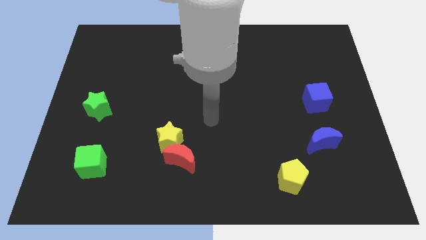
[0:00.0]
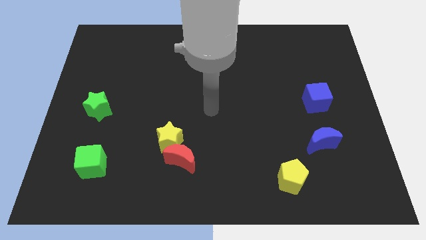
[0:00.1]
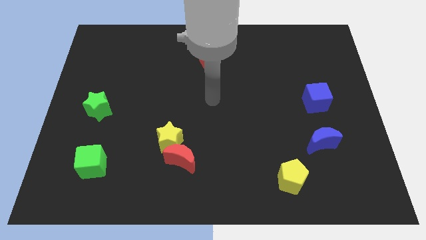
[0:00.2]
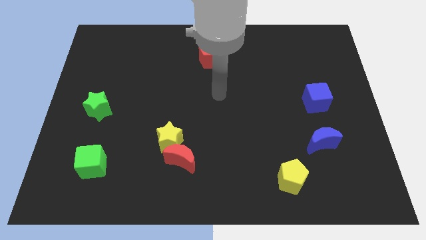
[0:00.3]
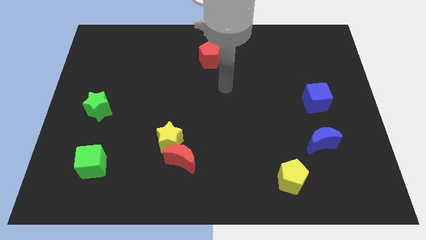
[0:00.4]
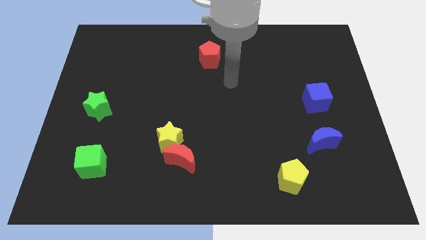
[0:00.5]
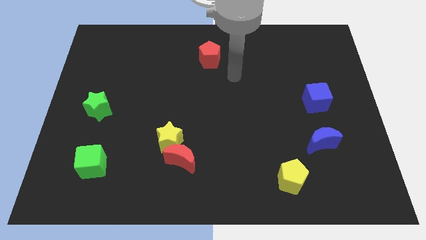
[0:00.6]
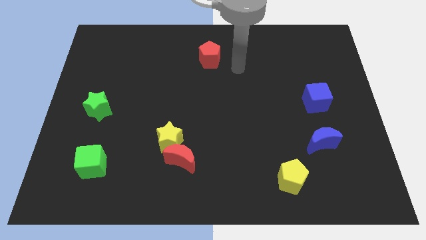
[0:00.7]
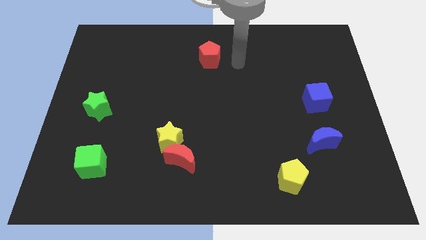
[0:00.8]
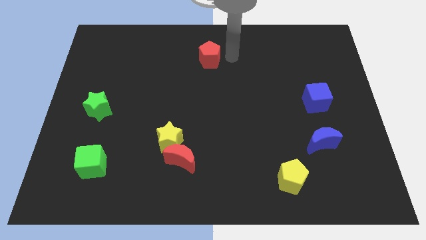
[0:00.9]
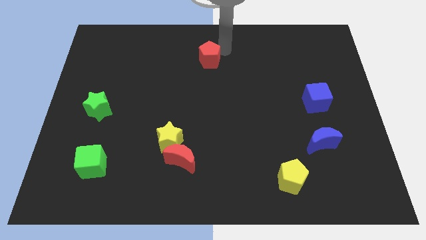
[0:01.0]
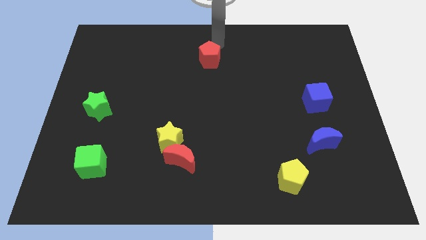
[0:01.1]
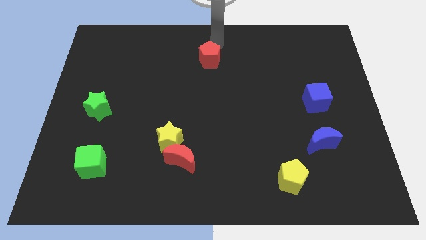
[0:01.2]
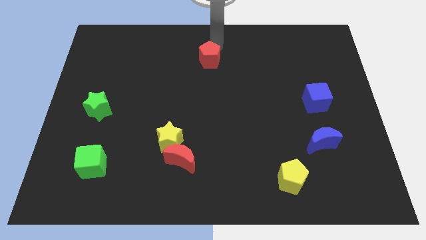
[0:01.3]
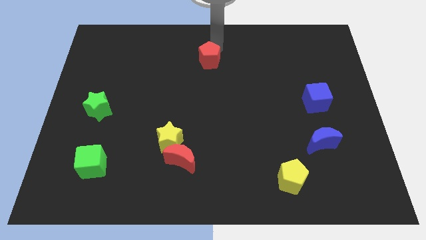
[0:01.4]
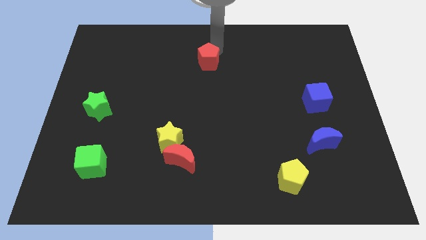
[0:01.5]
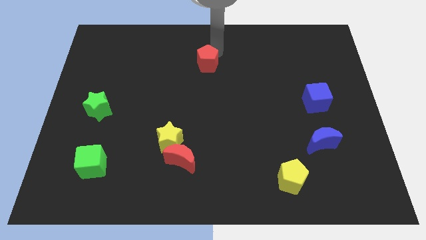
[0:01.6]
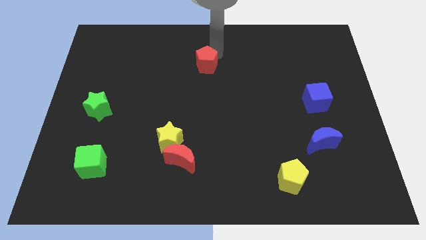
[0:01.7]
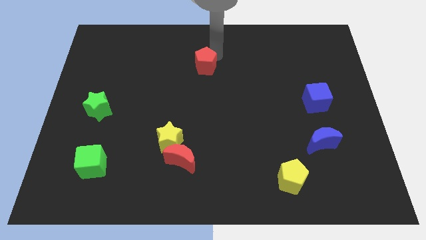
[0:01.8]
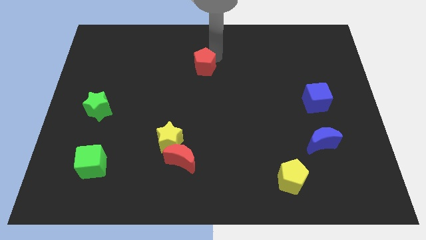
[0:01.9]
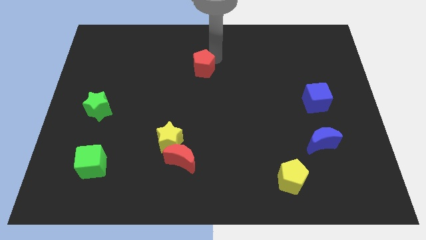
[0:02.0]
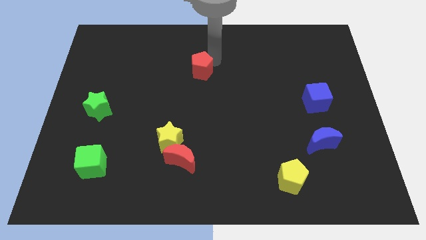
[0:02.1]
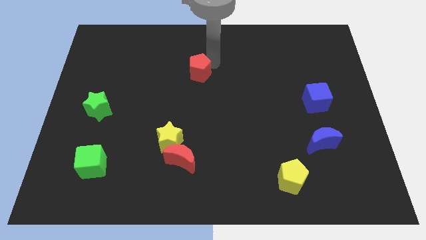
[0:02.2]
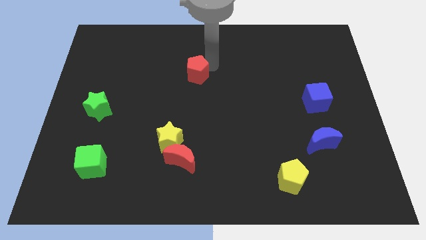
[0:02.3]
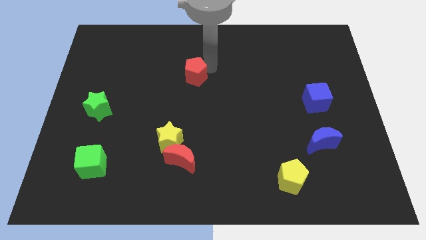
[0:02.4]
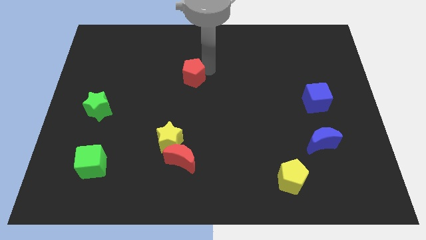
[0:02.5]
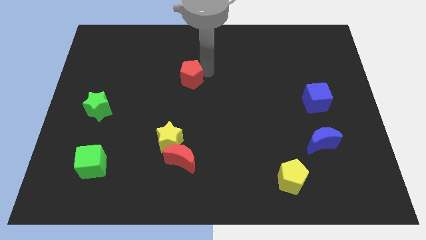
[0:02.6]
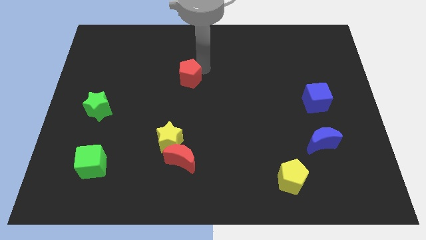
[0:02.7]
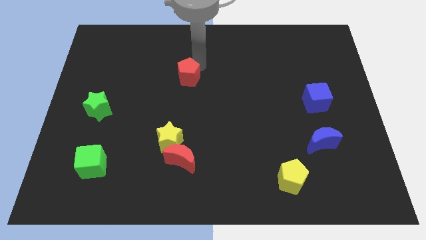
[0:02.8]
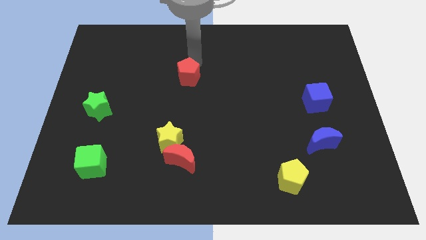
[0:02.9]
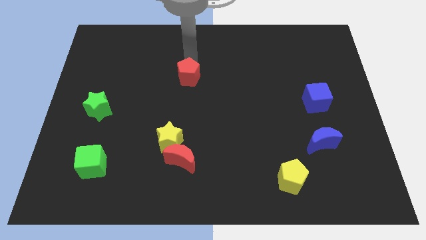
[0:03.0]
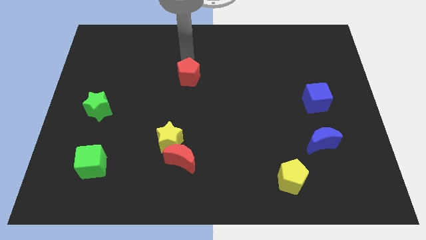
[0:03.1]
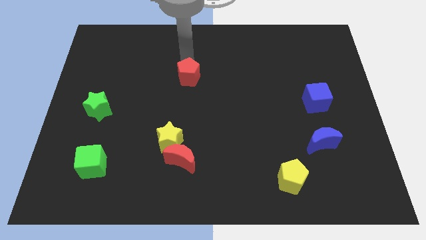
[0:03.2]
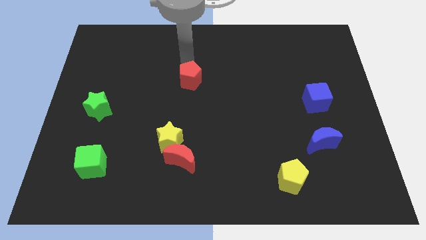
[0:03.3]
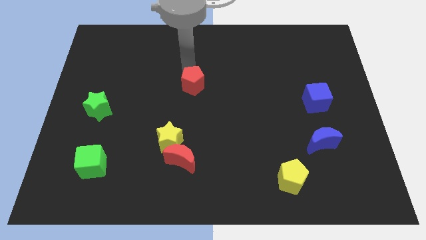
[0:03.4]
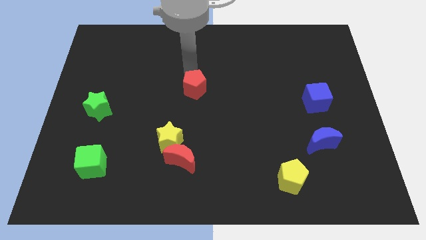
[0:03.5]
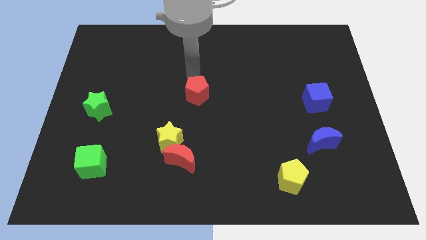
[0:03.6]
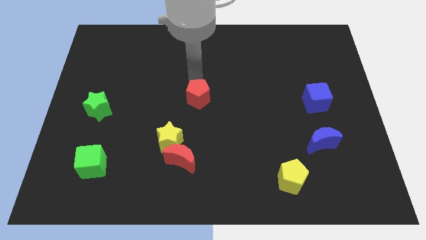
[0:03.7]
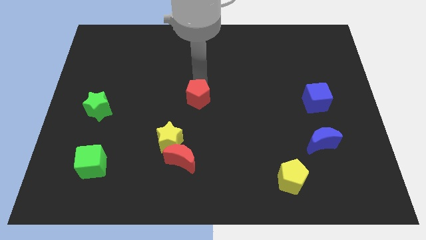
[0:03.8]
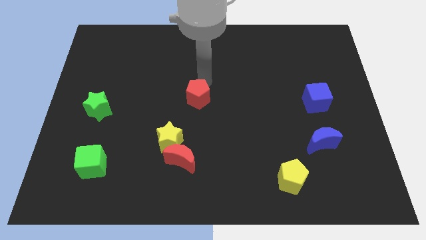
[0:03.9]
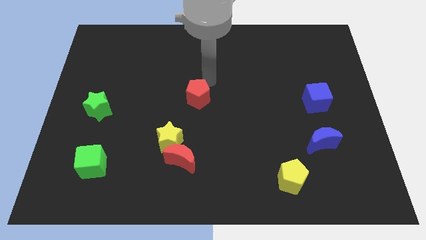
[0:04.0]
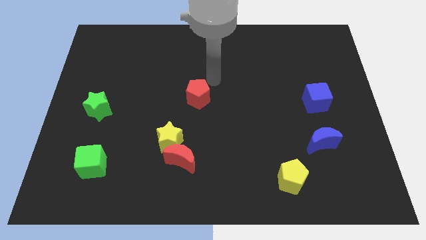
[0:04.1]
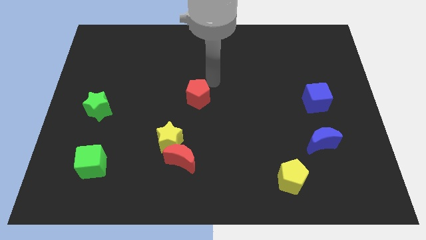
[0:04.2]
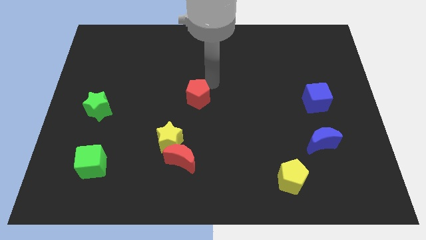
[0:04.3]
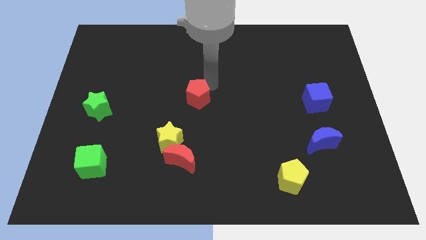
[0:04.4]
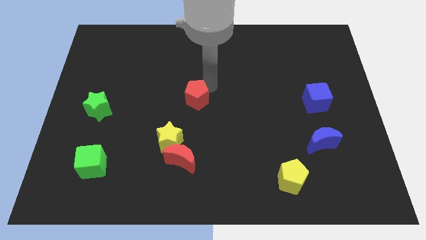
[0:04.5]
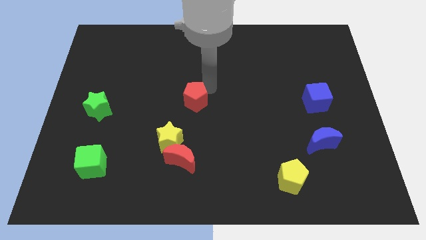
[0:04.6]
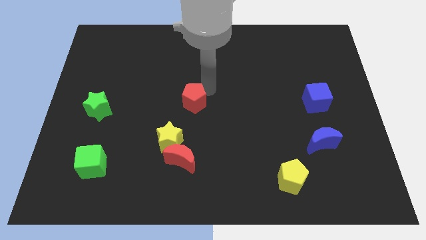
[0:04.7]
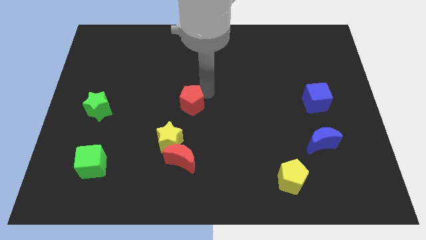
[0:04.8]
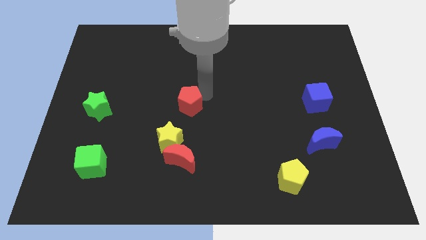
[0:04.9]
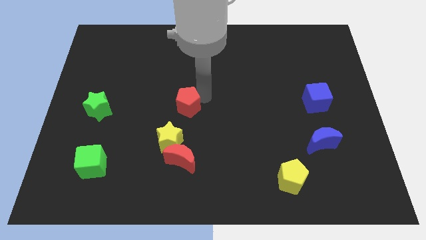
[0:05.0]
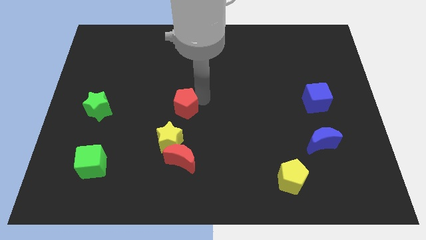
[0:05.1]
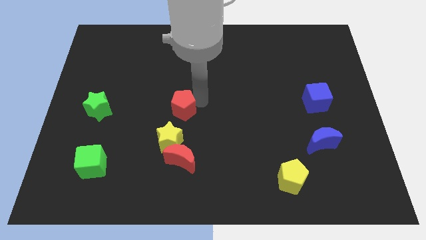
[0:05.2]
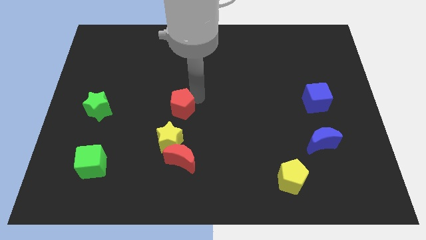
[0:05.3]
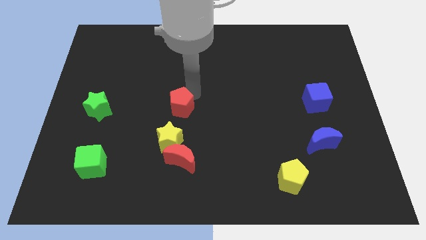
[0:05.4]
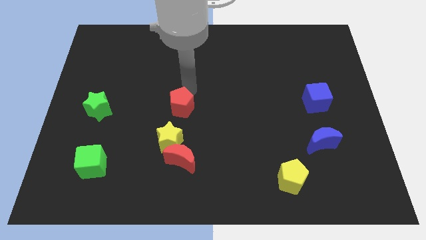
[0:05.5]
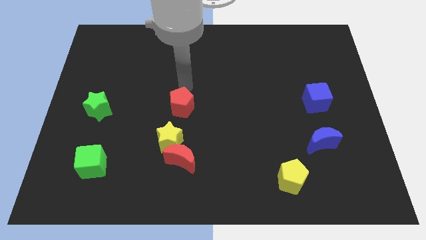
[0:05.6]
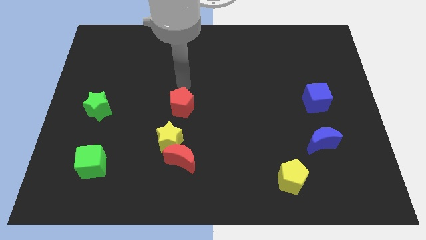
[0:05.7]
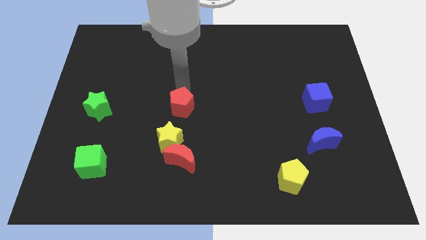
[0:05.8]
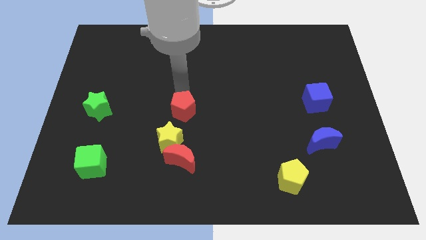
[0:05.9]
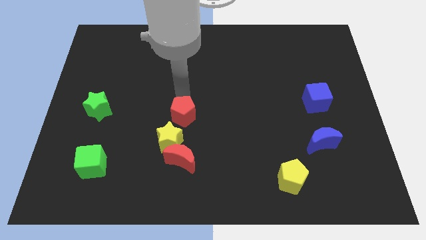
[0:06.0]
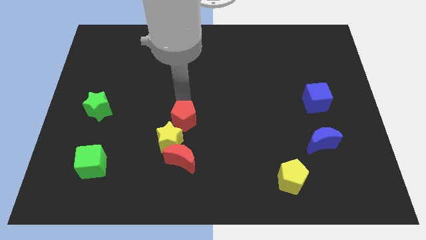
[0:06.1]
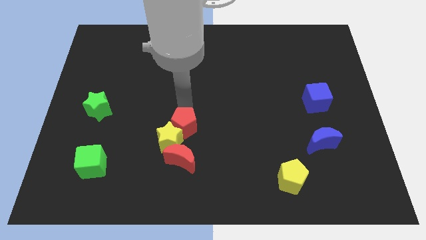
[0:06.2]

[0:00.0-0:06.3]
move the red pentagon next to the yellow star

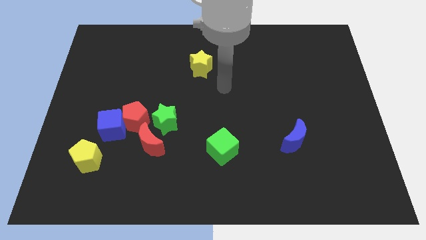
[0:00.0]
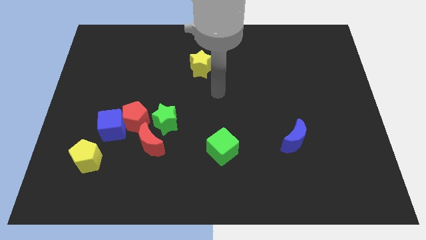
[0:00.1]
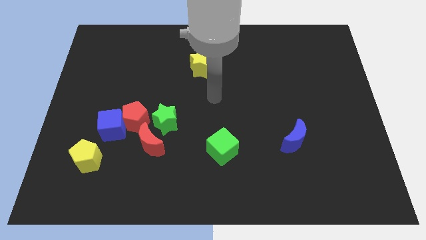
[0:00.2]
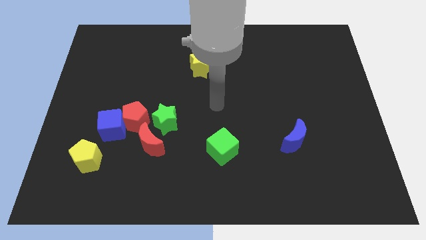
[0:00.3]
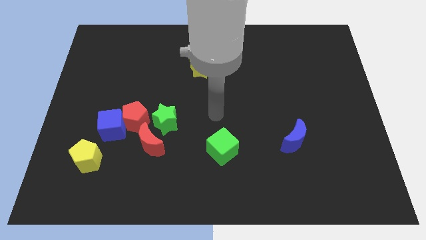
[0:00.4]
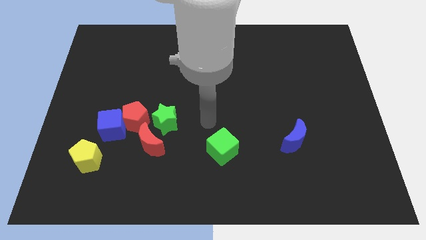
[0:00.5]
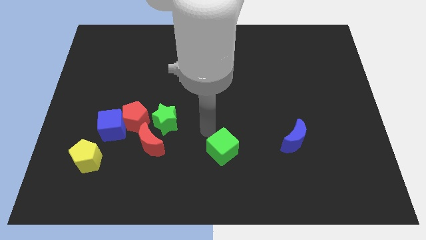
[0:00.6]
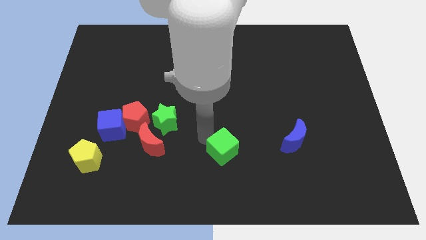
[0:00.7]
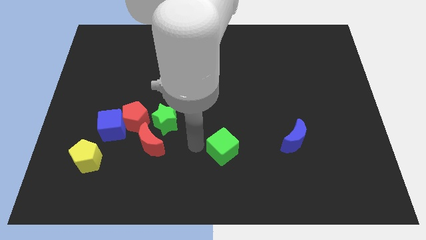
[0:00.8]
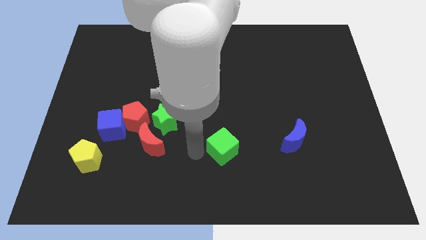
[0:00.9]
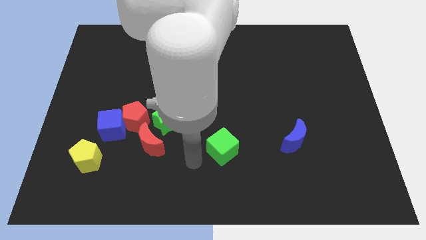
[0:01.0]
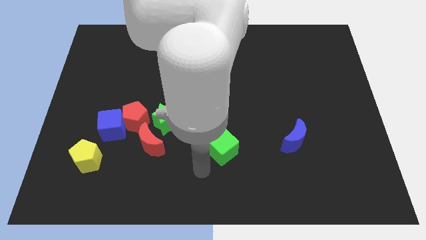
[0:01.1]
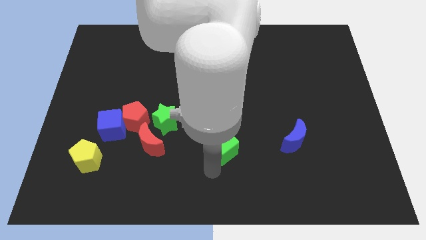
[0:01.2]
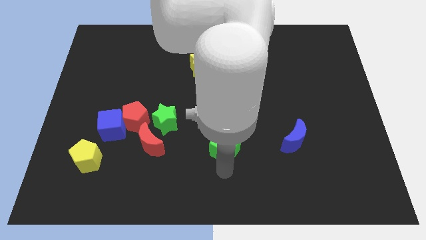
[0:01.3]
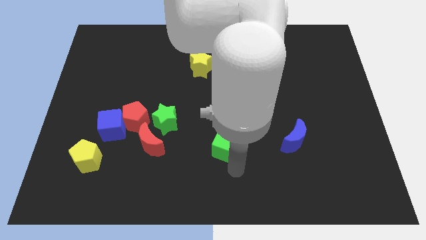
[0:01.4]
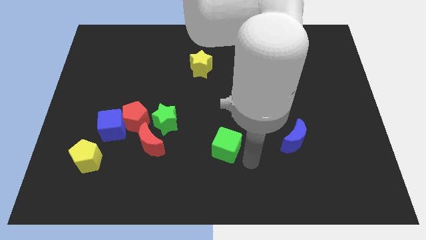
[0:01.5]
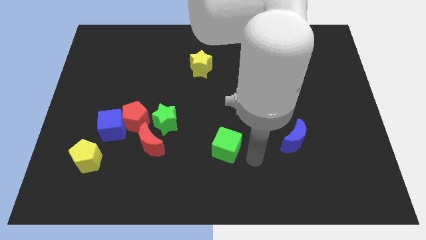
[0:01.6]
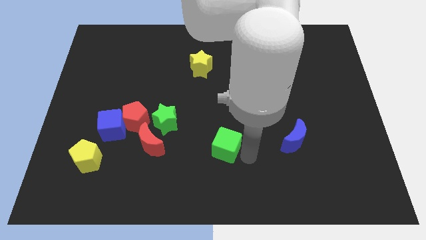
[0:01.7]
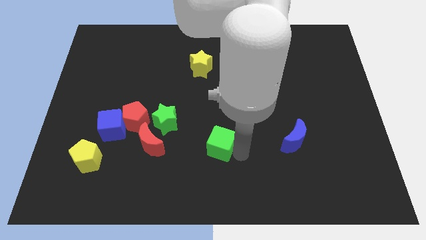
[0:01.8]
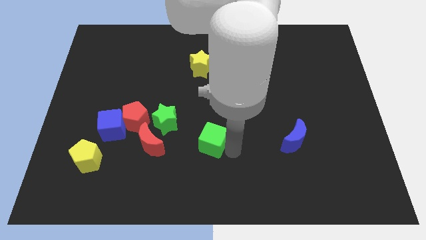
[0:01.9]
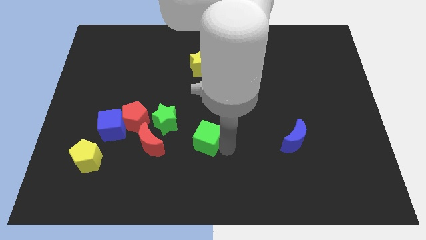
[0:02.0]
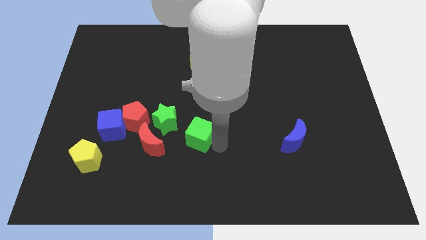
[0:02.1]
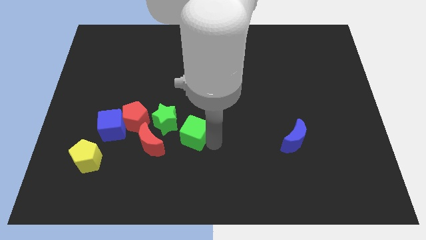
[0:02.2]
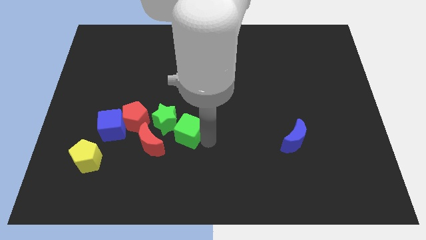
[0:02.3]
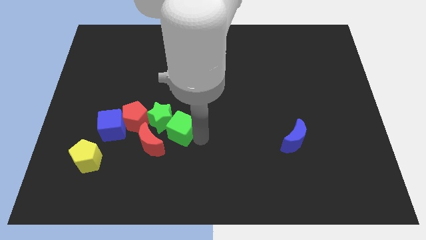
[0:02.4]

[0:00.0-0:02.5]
slide the green cube to the green star
